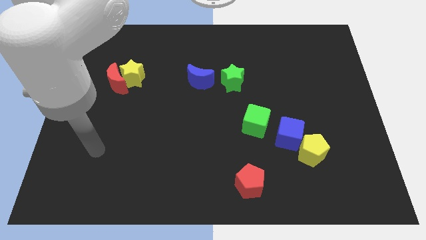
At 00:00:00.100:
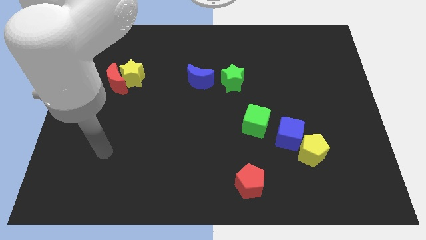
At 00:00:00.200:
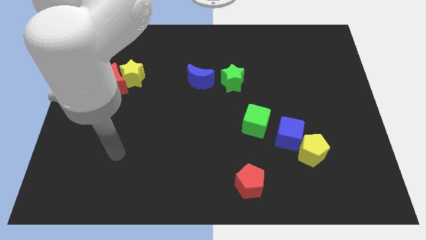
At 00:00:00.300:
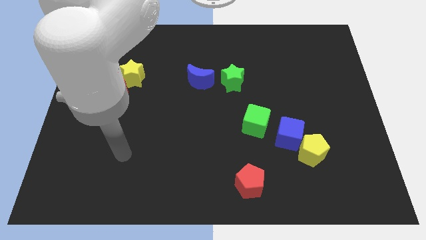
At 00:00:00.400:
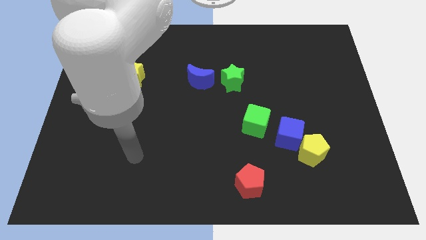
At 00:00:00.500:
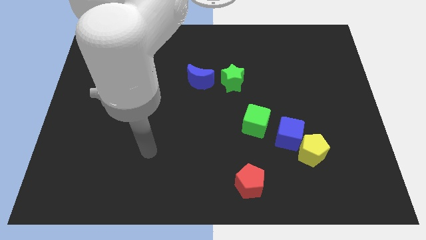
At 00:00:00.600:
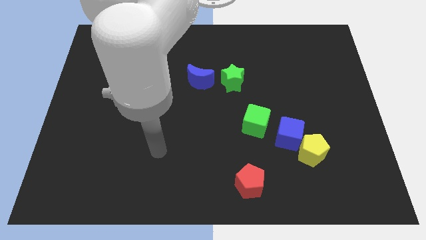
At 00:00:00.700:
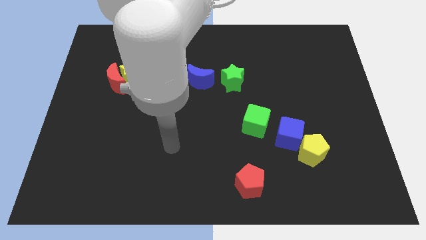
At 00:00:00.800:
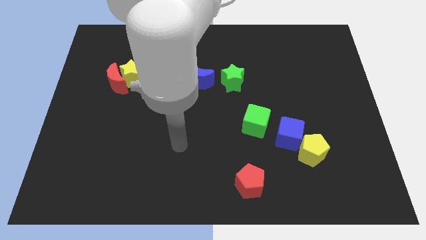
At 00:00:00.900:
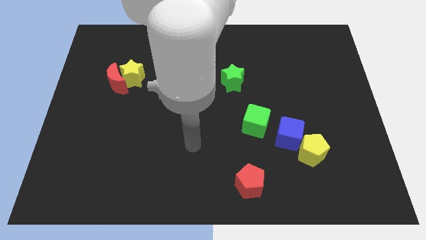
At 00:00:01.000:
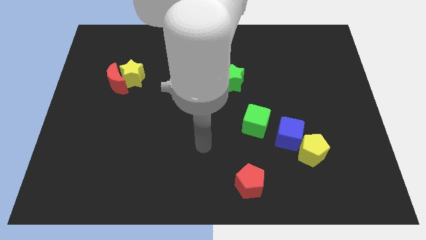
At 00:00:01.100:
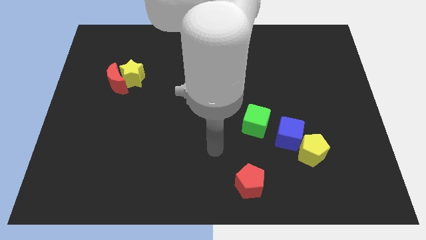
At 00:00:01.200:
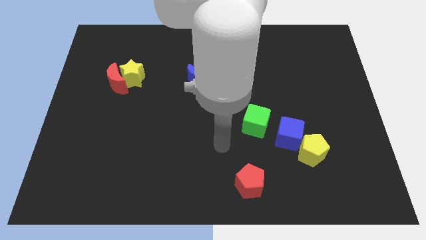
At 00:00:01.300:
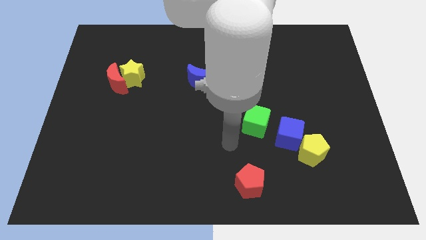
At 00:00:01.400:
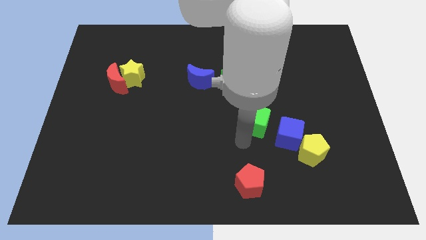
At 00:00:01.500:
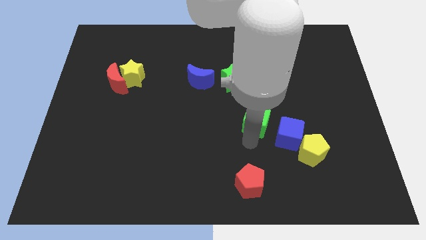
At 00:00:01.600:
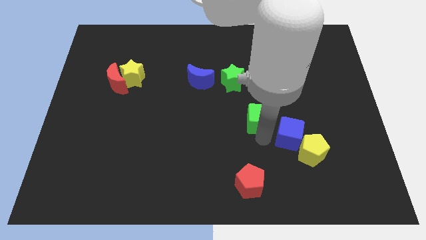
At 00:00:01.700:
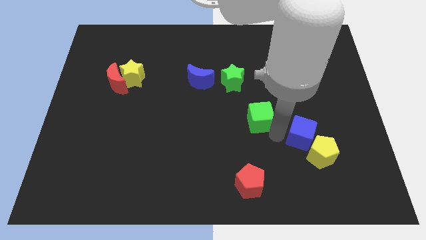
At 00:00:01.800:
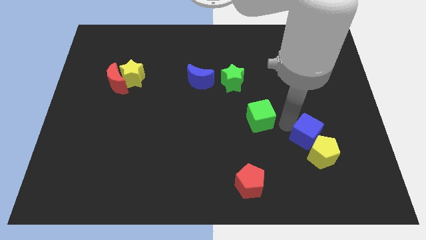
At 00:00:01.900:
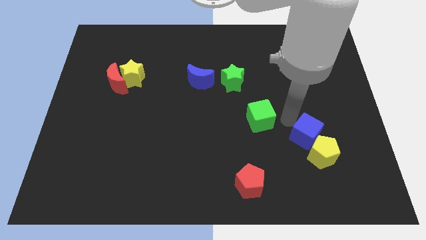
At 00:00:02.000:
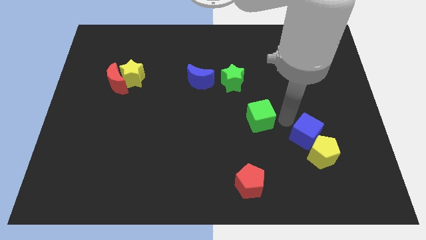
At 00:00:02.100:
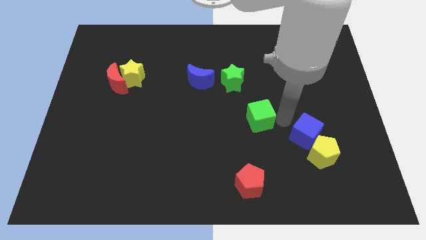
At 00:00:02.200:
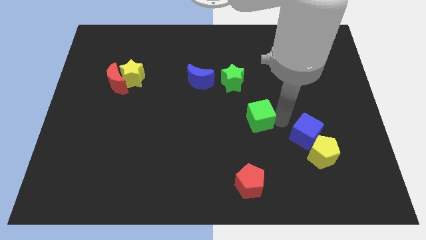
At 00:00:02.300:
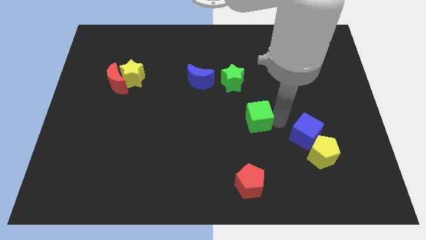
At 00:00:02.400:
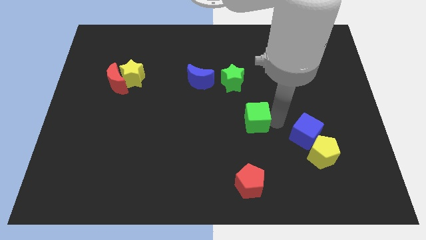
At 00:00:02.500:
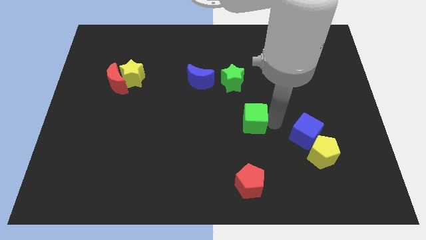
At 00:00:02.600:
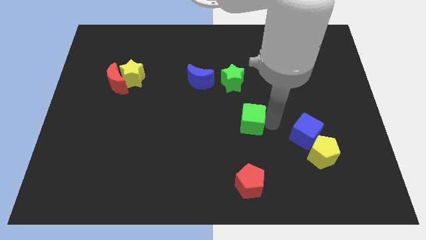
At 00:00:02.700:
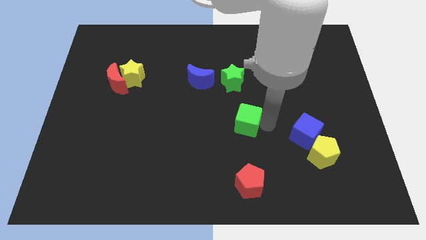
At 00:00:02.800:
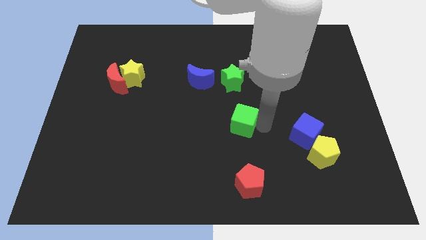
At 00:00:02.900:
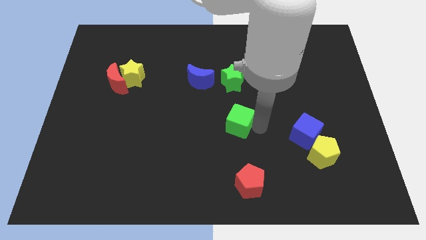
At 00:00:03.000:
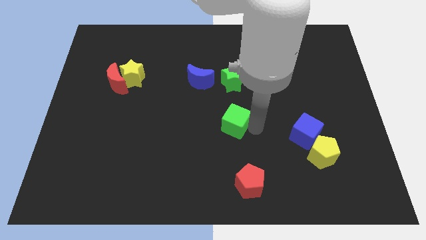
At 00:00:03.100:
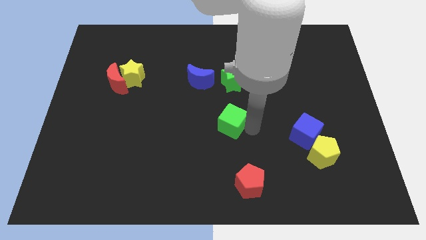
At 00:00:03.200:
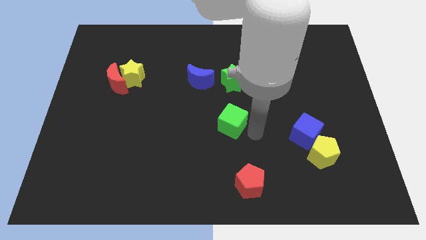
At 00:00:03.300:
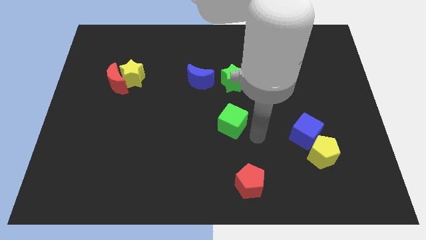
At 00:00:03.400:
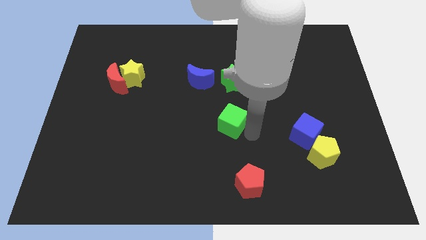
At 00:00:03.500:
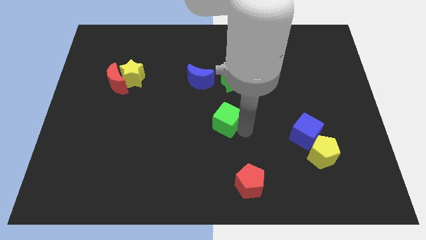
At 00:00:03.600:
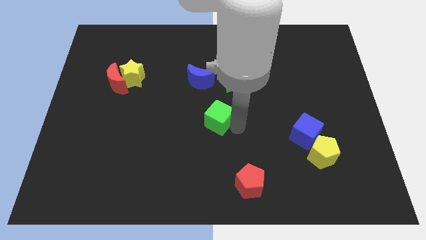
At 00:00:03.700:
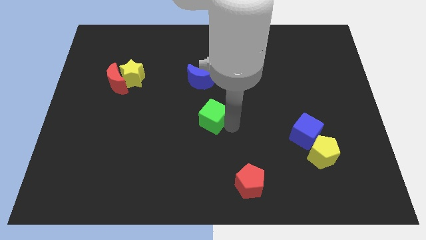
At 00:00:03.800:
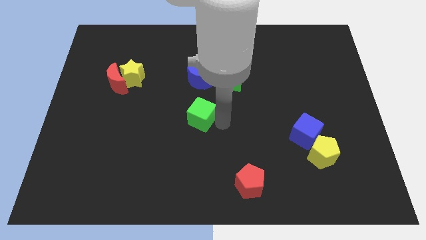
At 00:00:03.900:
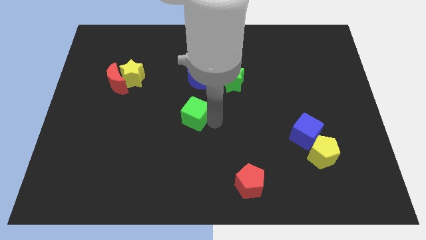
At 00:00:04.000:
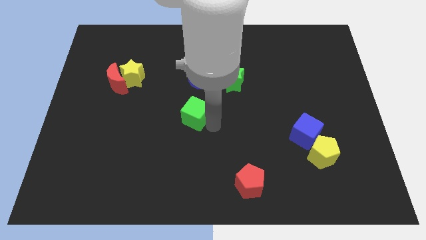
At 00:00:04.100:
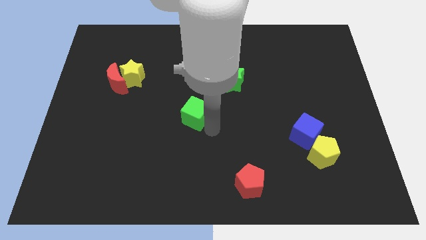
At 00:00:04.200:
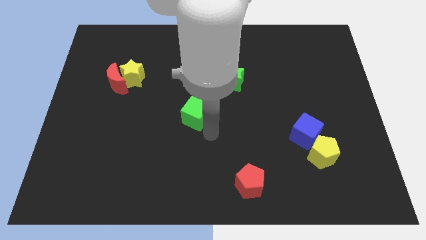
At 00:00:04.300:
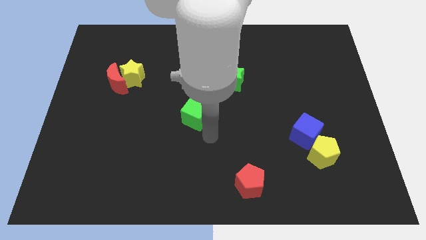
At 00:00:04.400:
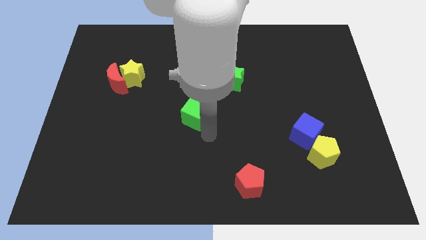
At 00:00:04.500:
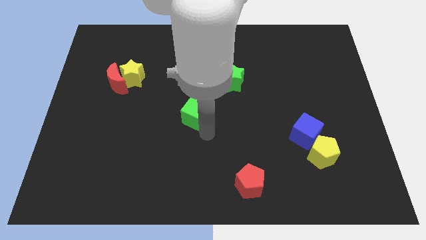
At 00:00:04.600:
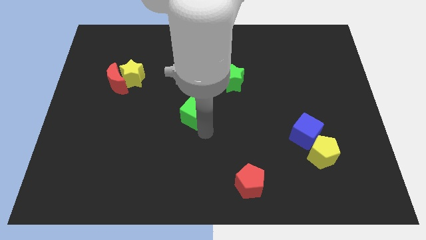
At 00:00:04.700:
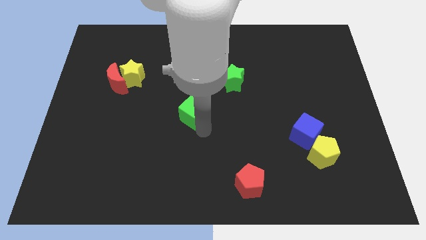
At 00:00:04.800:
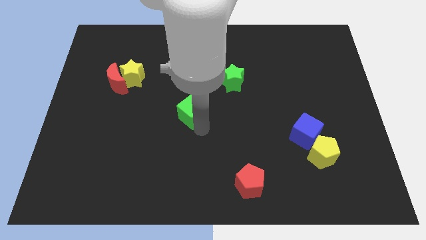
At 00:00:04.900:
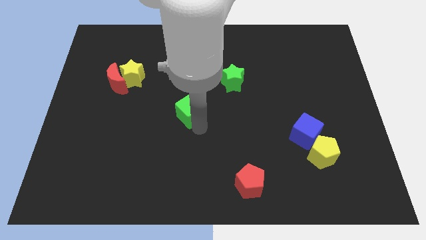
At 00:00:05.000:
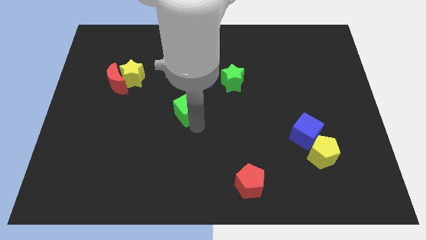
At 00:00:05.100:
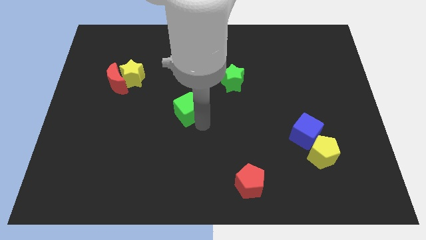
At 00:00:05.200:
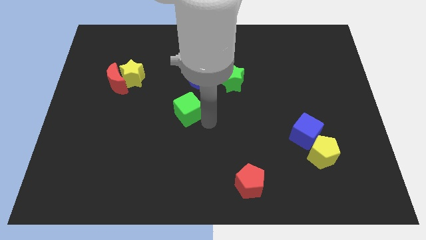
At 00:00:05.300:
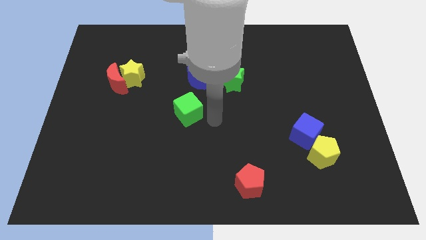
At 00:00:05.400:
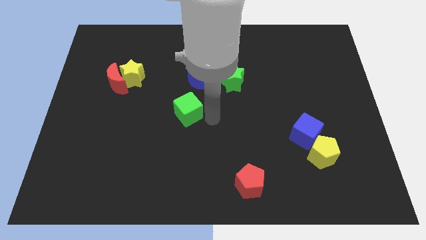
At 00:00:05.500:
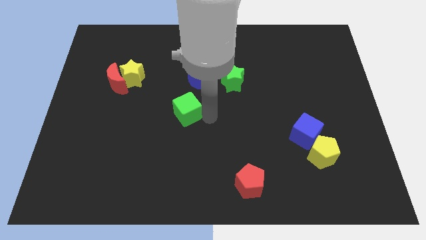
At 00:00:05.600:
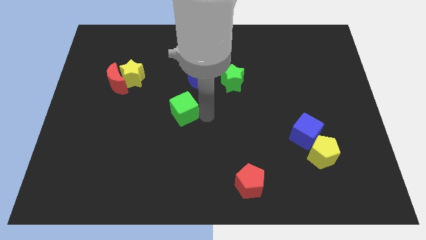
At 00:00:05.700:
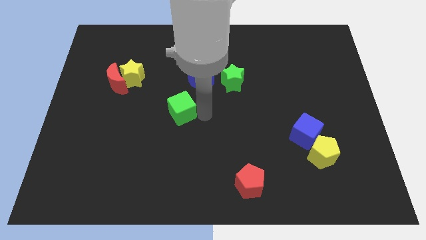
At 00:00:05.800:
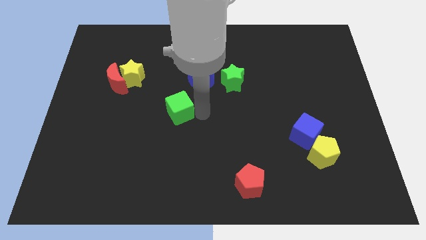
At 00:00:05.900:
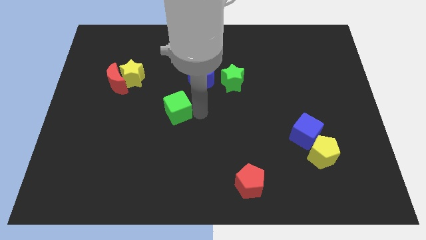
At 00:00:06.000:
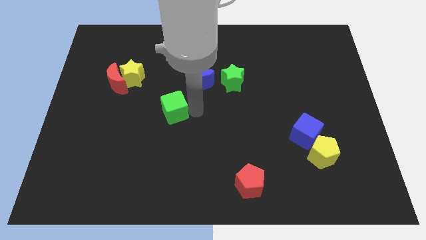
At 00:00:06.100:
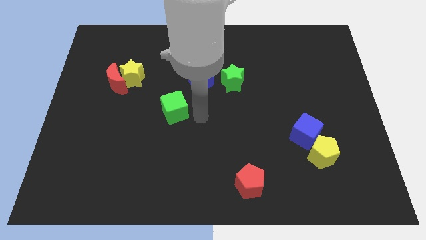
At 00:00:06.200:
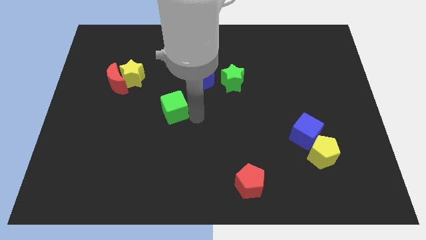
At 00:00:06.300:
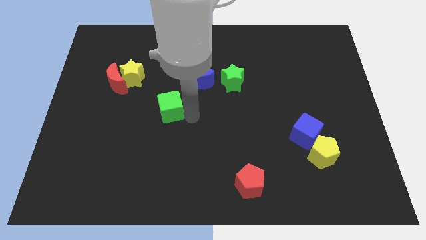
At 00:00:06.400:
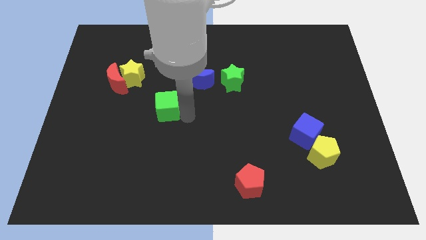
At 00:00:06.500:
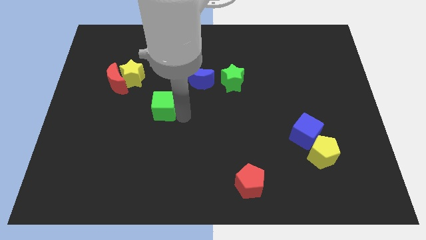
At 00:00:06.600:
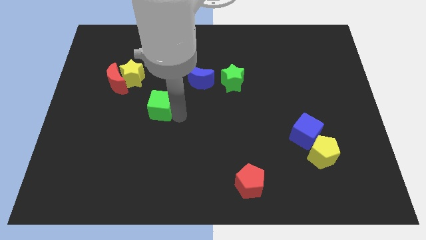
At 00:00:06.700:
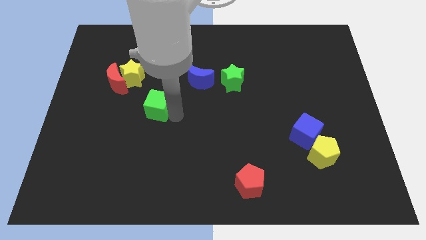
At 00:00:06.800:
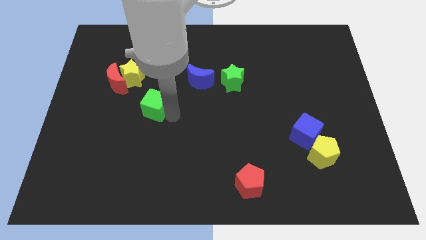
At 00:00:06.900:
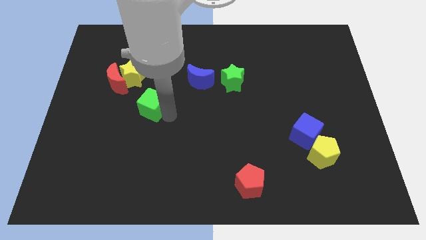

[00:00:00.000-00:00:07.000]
put the green cube to the bottom right side of the red moon
